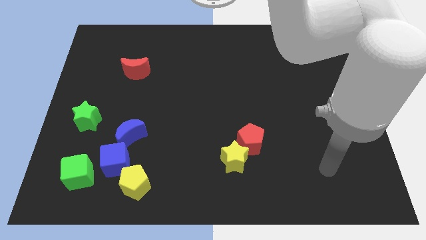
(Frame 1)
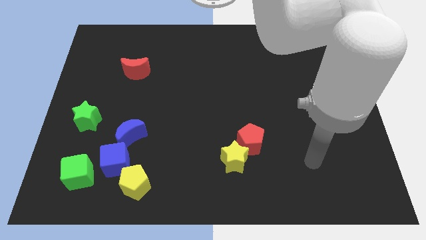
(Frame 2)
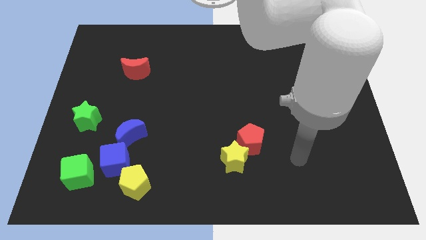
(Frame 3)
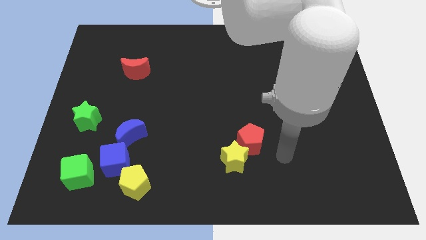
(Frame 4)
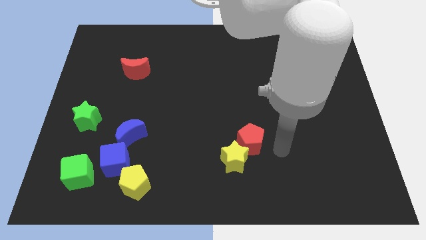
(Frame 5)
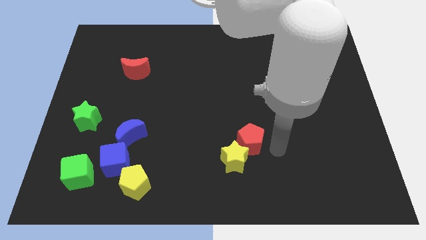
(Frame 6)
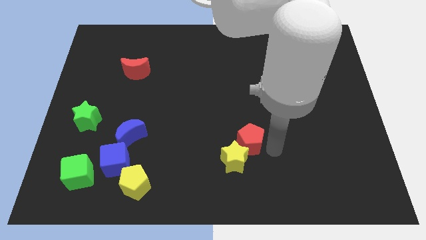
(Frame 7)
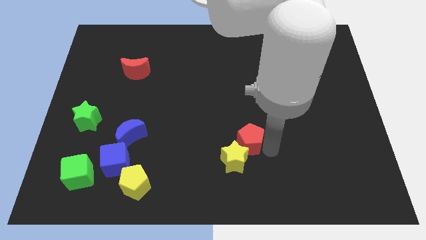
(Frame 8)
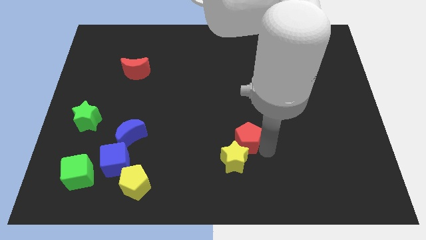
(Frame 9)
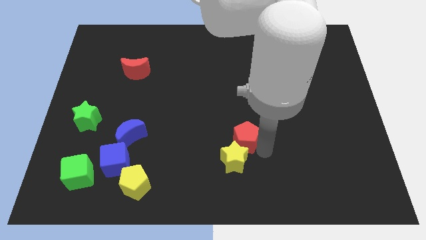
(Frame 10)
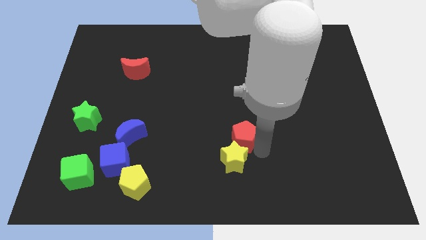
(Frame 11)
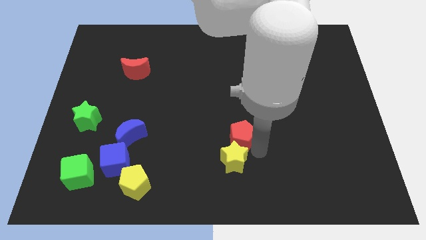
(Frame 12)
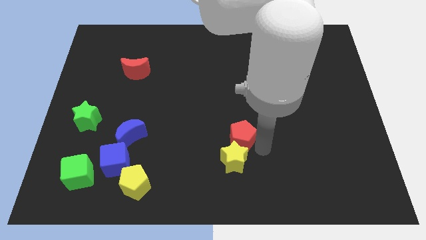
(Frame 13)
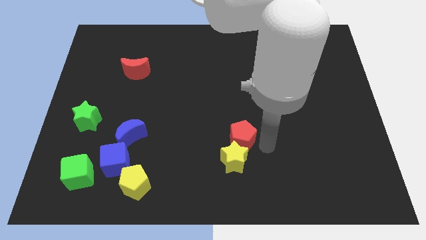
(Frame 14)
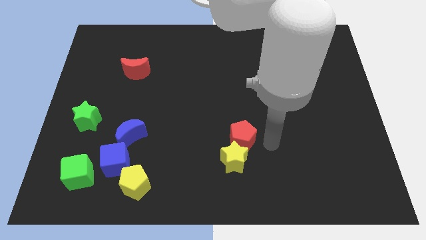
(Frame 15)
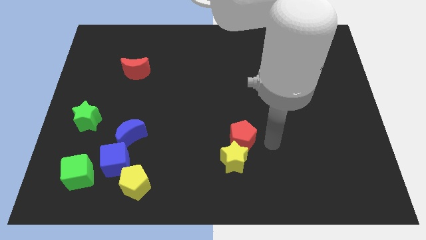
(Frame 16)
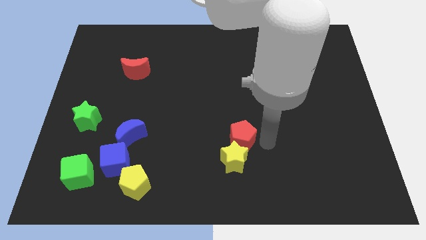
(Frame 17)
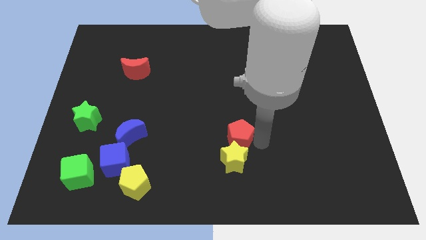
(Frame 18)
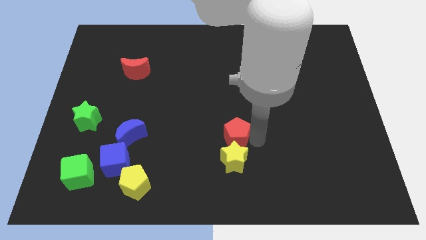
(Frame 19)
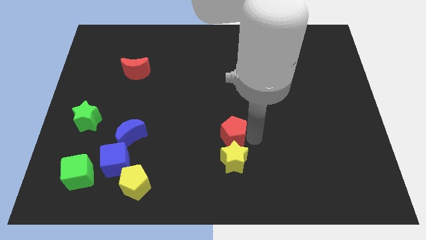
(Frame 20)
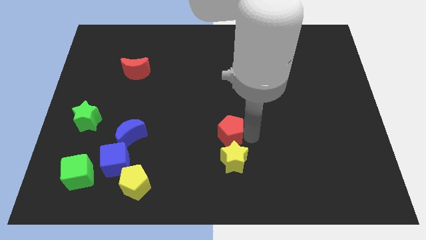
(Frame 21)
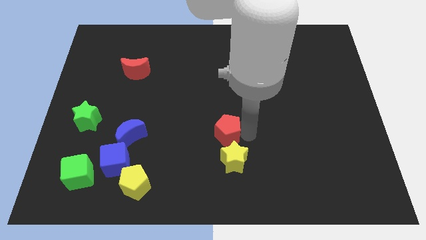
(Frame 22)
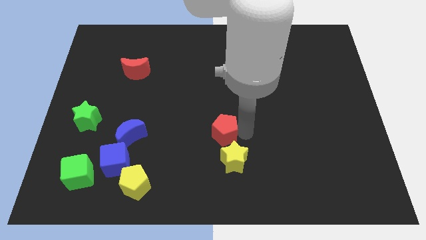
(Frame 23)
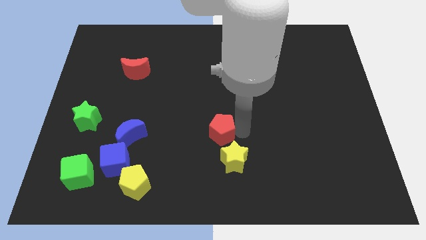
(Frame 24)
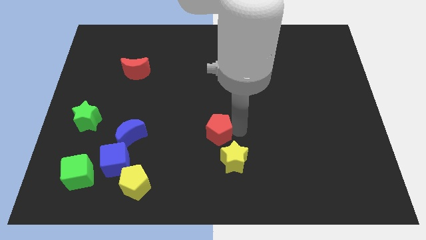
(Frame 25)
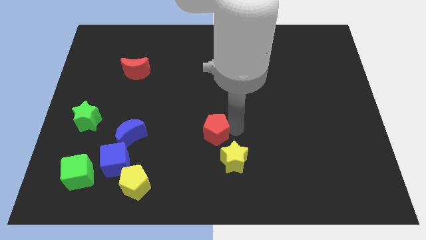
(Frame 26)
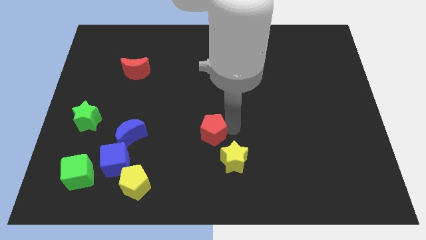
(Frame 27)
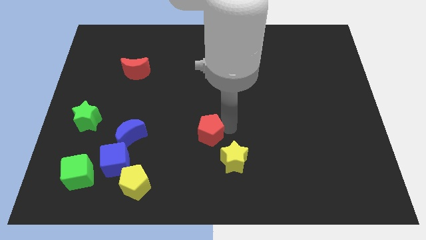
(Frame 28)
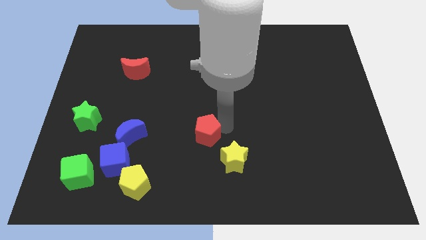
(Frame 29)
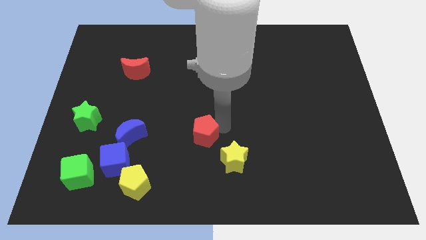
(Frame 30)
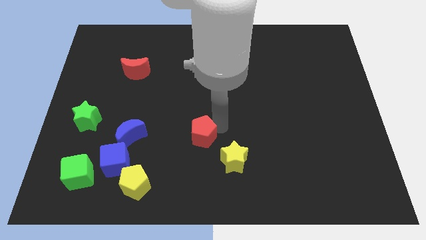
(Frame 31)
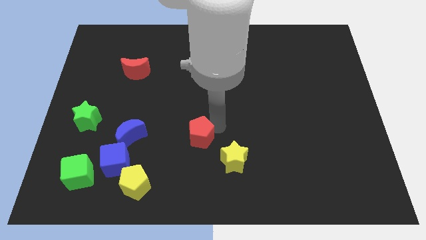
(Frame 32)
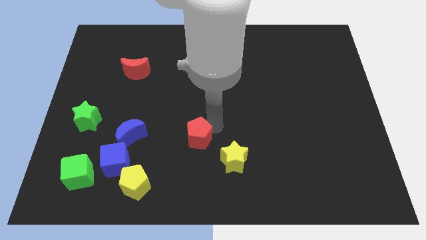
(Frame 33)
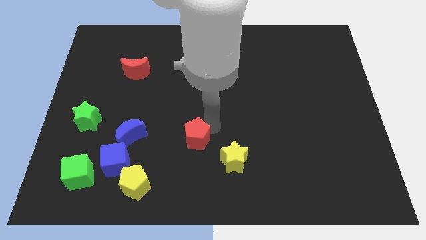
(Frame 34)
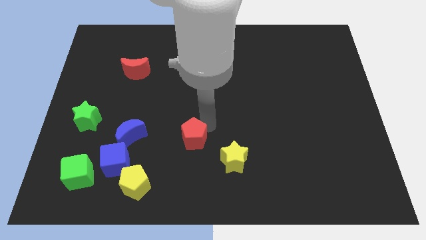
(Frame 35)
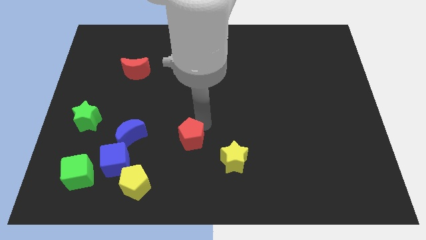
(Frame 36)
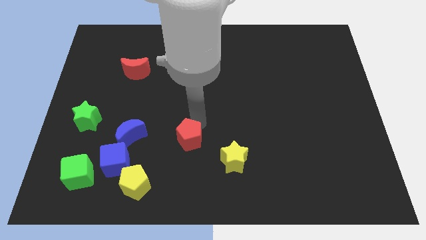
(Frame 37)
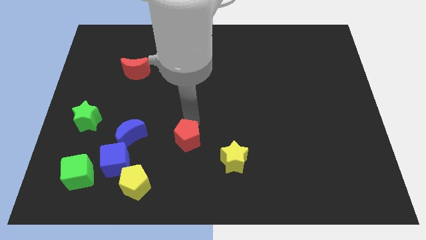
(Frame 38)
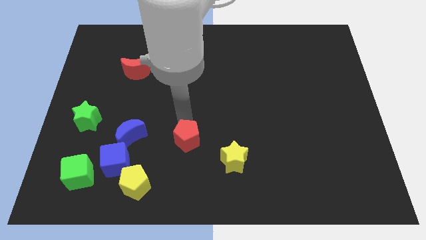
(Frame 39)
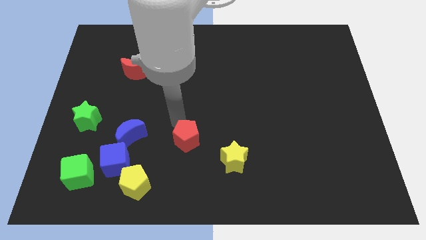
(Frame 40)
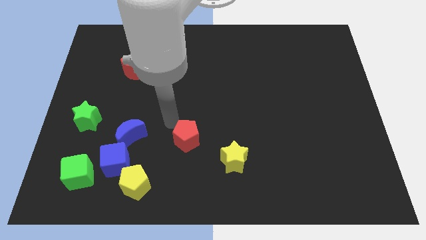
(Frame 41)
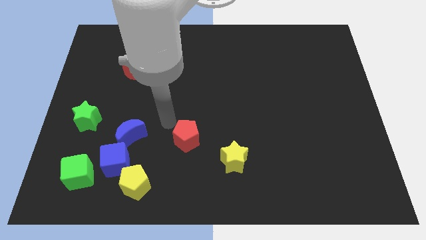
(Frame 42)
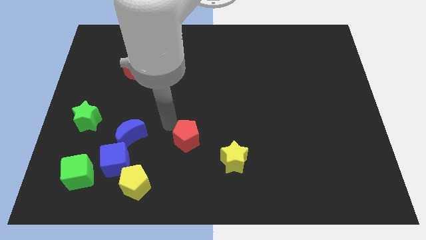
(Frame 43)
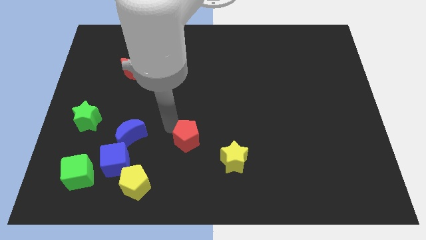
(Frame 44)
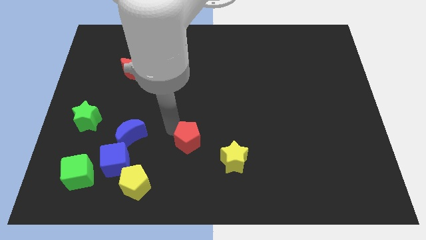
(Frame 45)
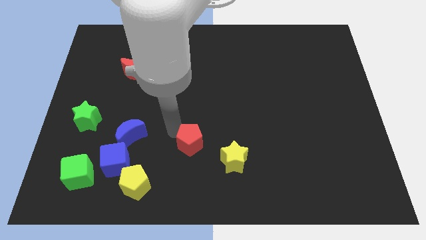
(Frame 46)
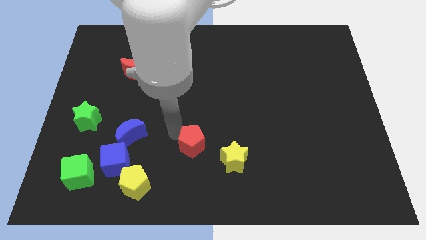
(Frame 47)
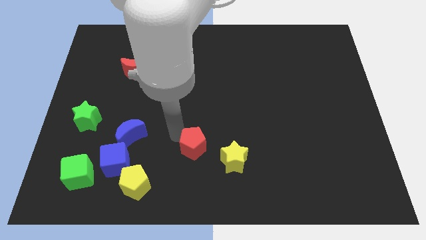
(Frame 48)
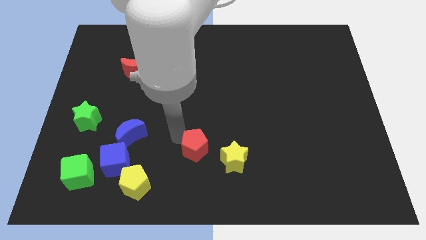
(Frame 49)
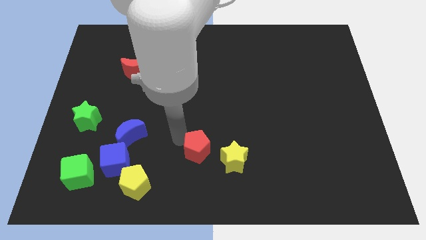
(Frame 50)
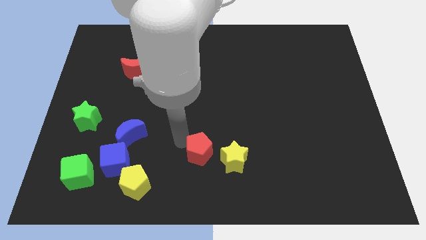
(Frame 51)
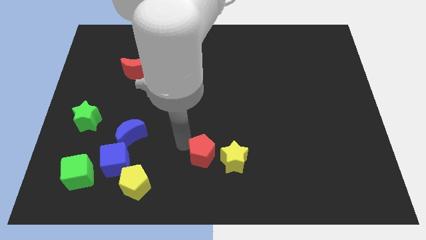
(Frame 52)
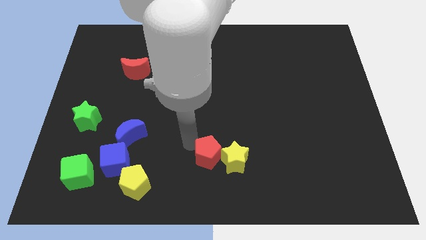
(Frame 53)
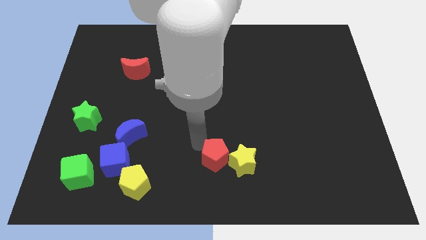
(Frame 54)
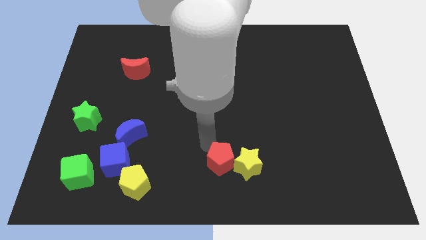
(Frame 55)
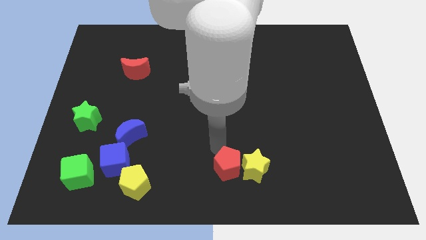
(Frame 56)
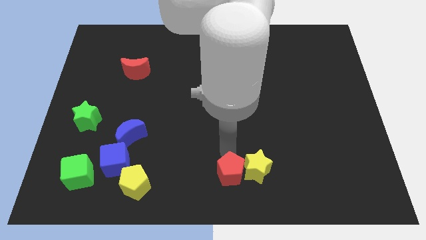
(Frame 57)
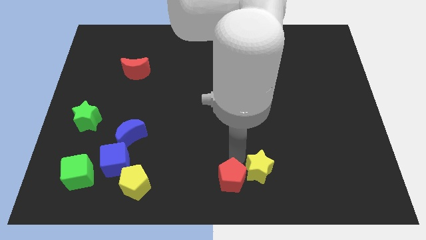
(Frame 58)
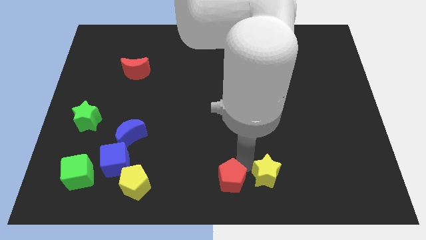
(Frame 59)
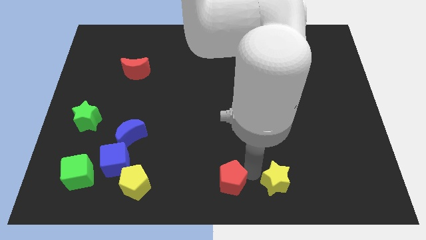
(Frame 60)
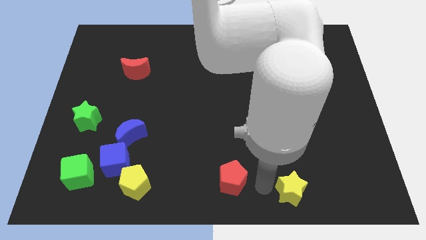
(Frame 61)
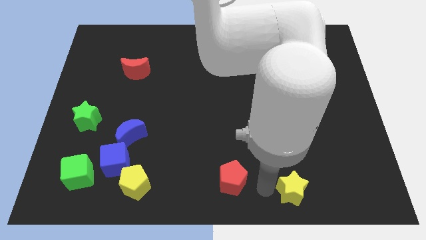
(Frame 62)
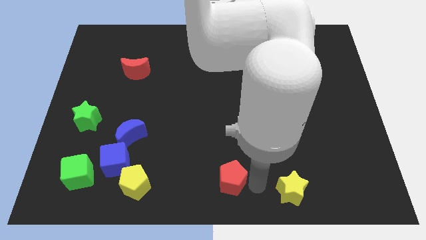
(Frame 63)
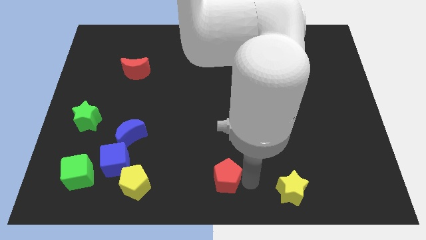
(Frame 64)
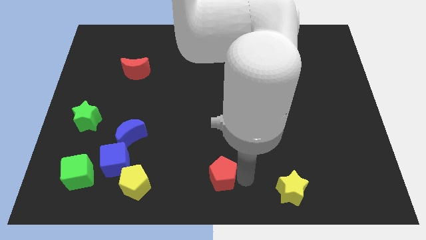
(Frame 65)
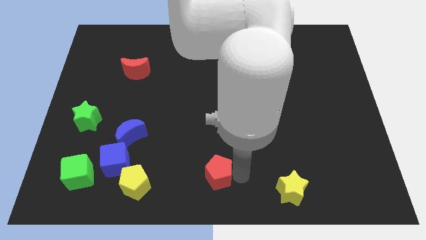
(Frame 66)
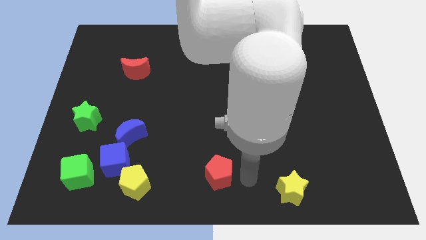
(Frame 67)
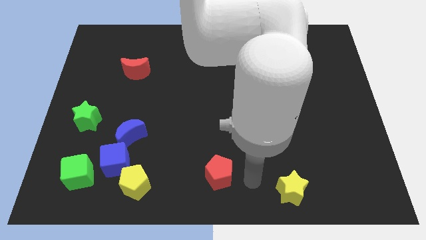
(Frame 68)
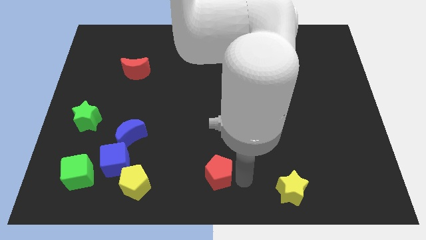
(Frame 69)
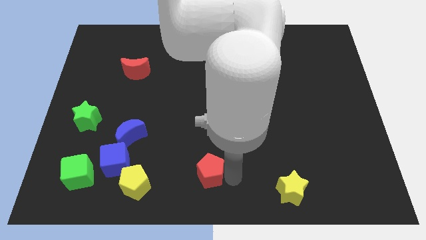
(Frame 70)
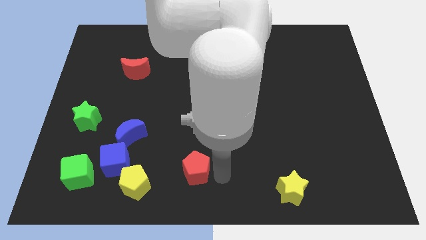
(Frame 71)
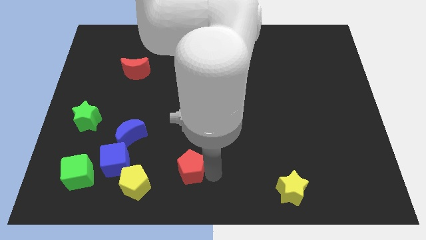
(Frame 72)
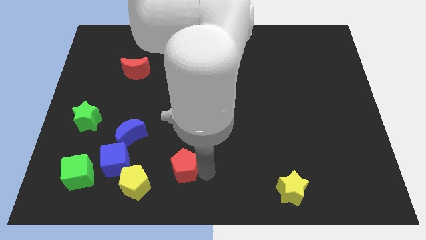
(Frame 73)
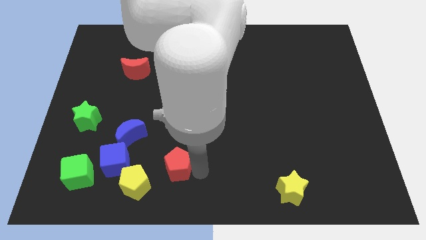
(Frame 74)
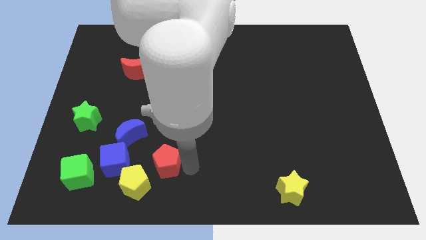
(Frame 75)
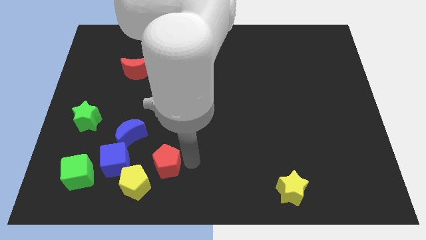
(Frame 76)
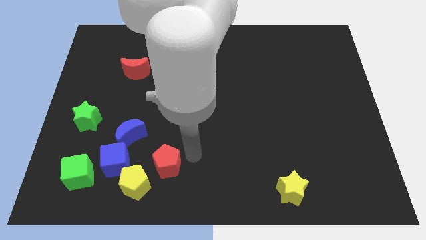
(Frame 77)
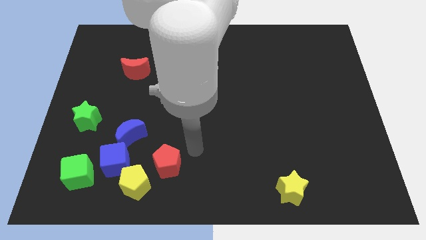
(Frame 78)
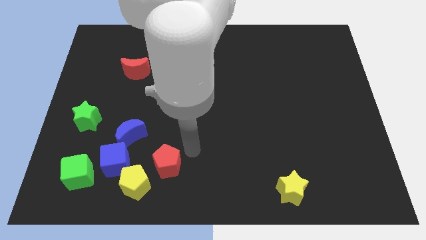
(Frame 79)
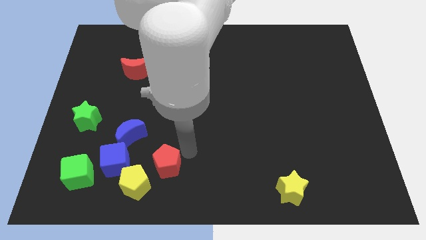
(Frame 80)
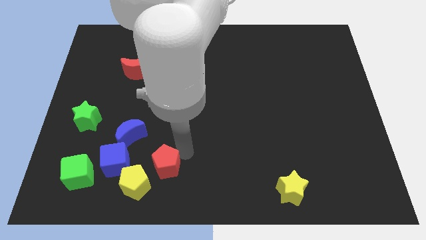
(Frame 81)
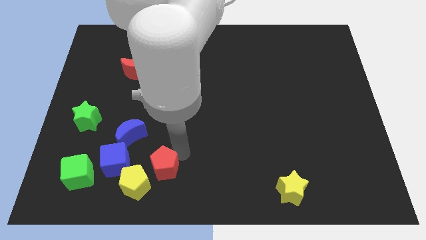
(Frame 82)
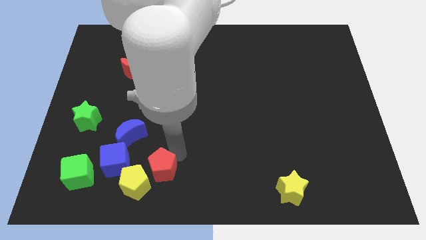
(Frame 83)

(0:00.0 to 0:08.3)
slide the red pentagon to the yellow pentagon
